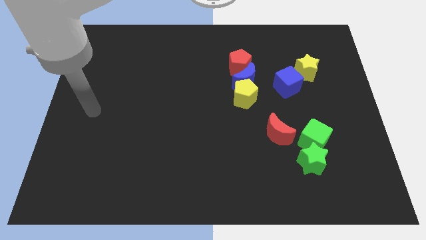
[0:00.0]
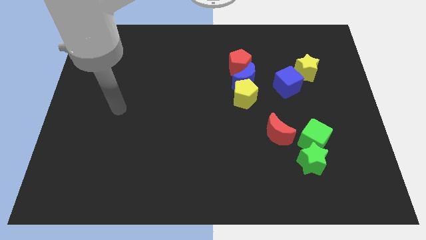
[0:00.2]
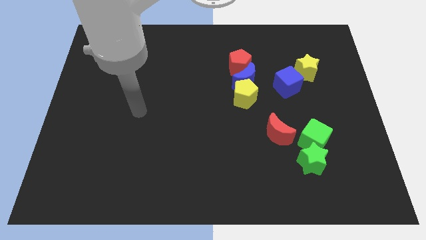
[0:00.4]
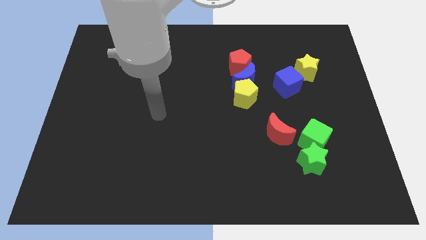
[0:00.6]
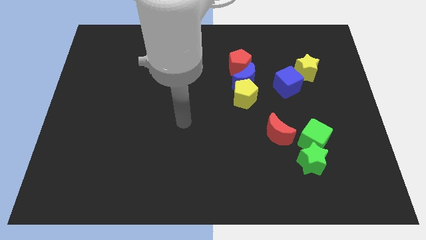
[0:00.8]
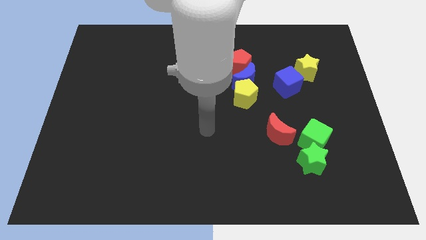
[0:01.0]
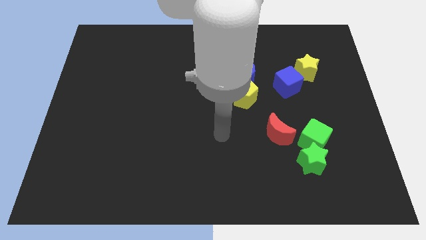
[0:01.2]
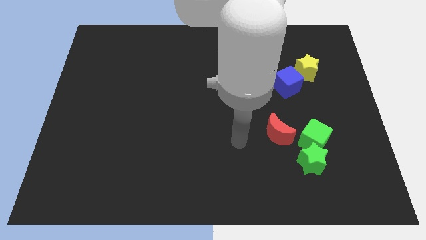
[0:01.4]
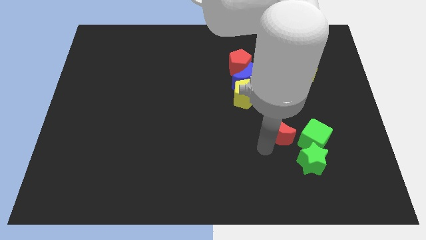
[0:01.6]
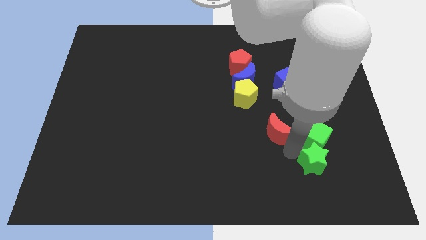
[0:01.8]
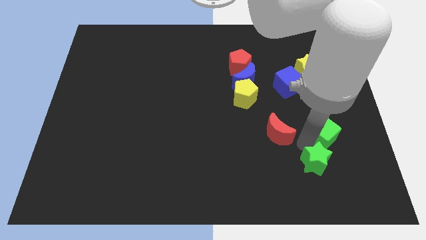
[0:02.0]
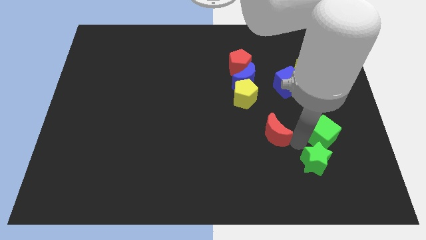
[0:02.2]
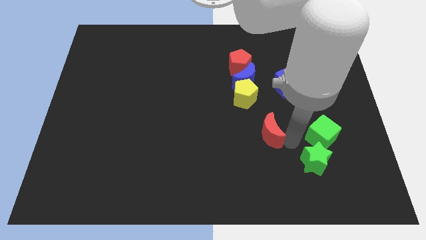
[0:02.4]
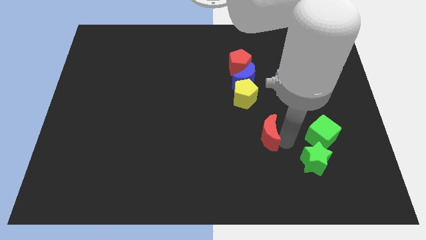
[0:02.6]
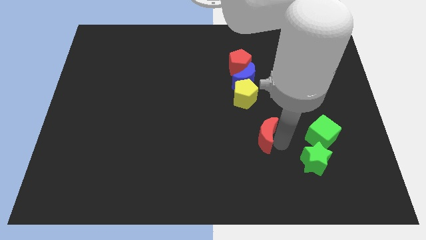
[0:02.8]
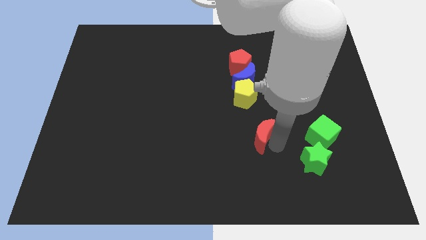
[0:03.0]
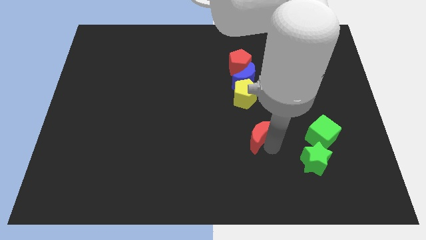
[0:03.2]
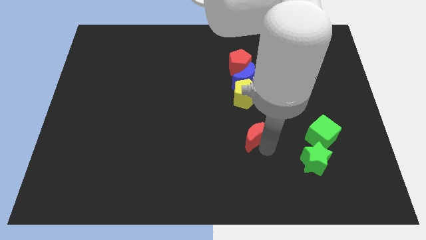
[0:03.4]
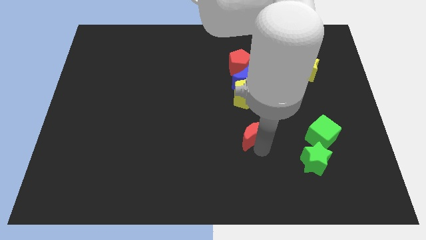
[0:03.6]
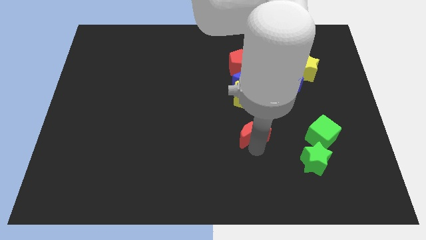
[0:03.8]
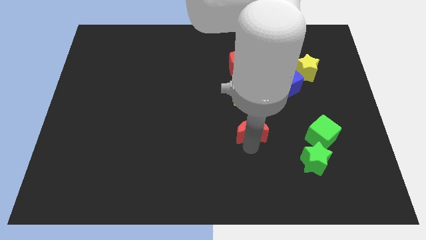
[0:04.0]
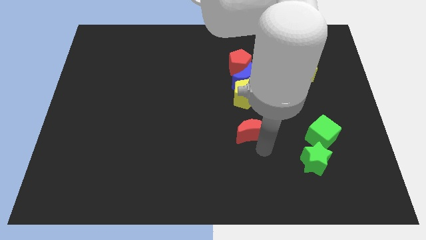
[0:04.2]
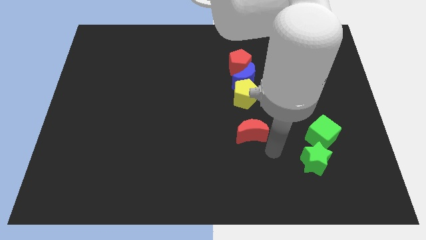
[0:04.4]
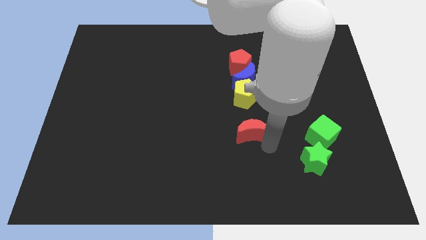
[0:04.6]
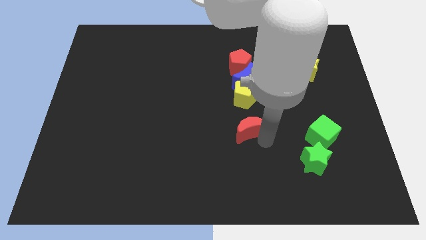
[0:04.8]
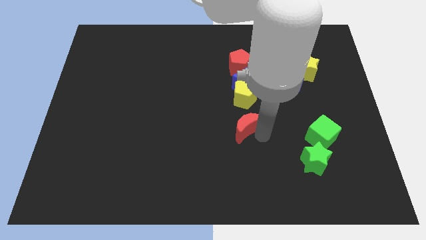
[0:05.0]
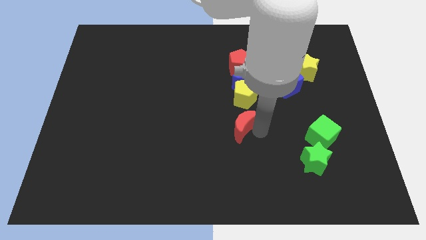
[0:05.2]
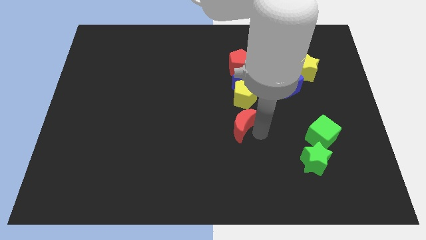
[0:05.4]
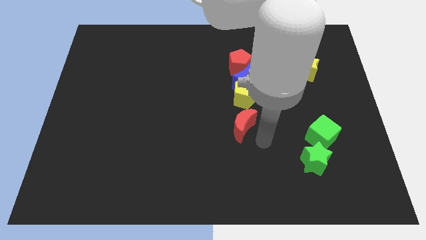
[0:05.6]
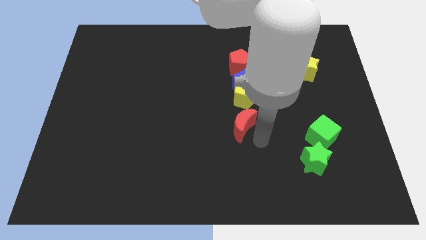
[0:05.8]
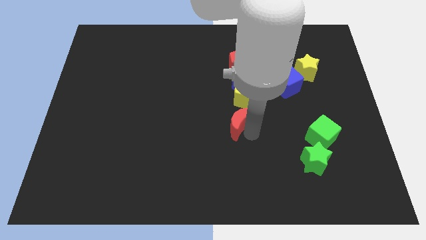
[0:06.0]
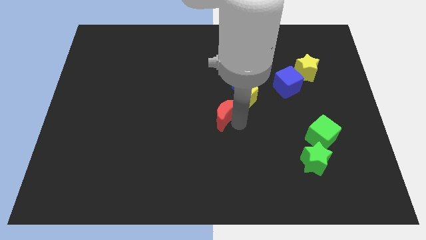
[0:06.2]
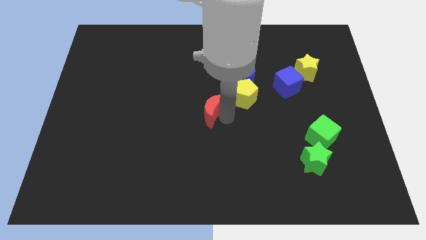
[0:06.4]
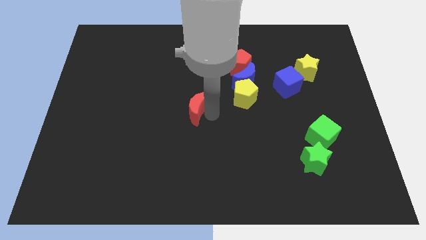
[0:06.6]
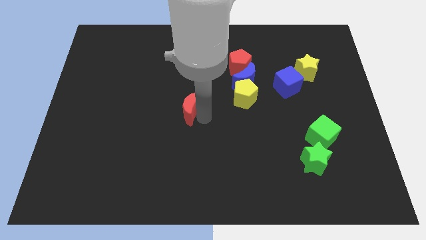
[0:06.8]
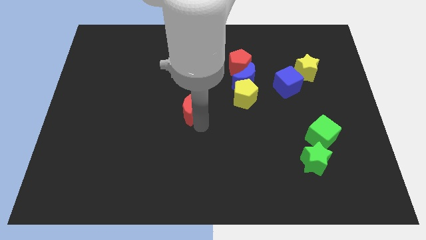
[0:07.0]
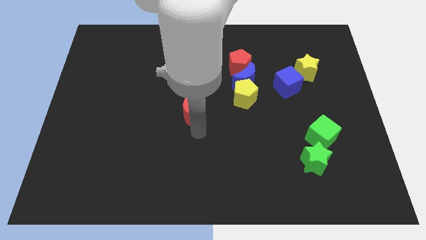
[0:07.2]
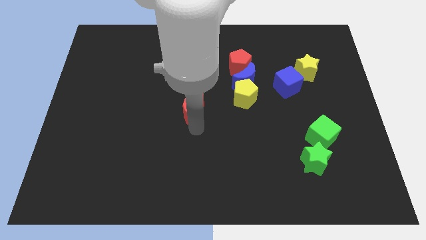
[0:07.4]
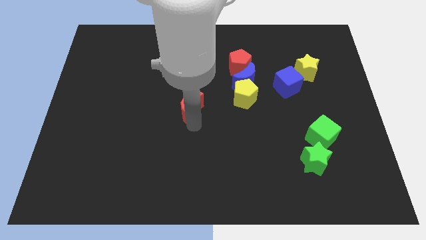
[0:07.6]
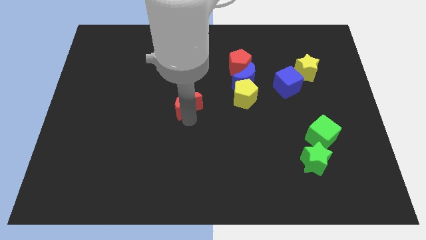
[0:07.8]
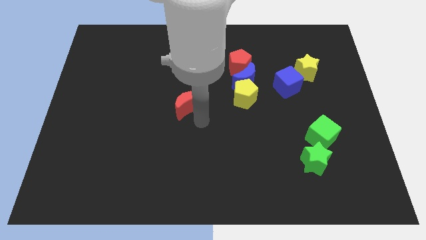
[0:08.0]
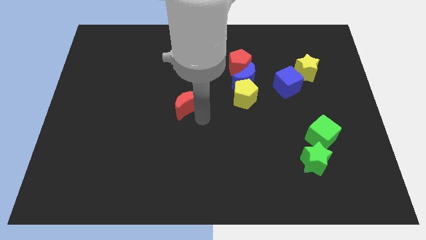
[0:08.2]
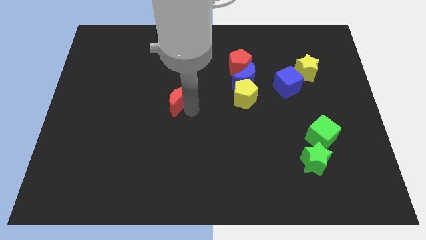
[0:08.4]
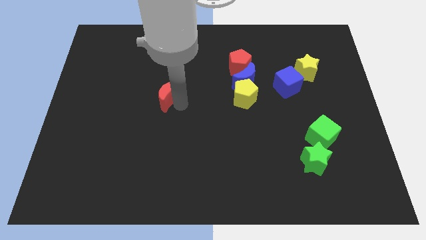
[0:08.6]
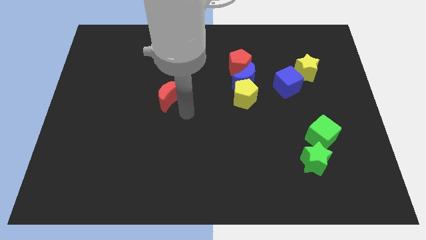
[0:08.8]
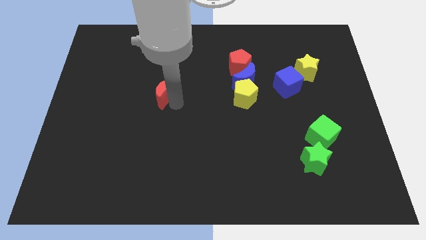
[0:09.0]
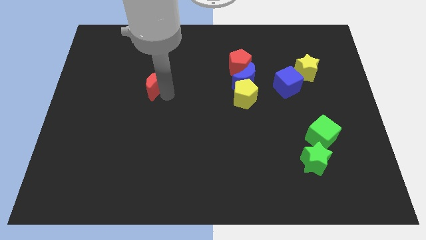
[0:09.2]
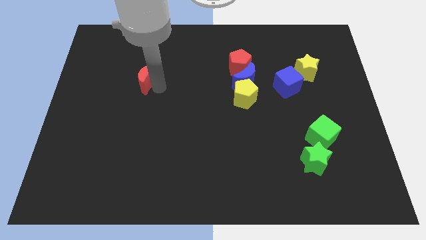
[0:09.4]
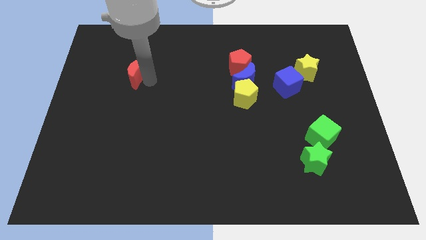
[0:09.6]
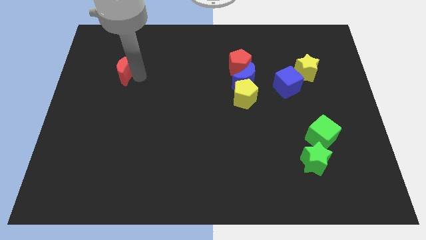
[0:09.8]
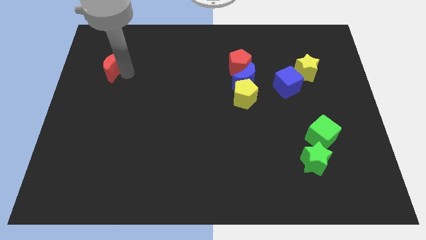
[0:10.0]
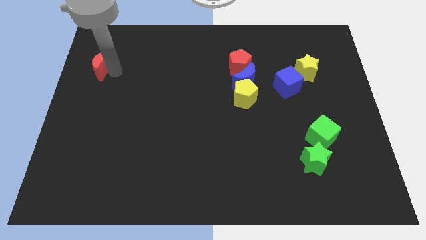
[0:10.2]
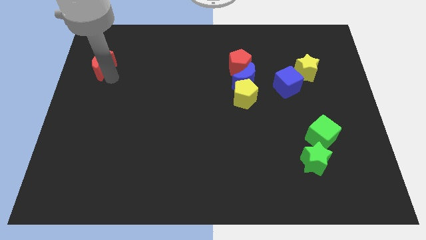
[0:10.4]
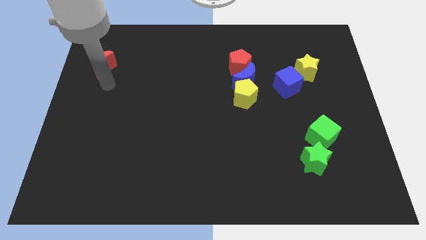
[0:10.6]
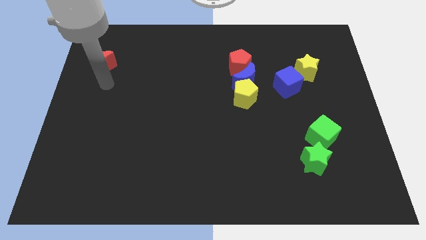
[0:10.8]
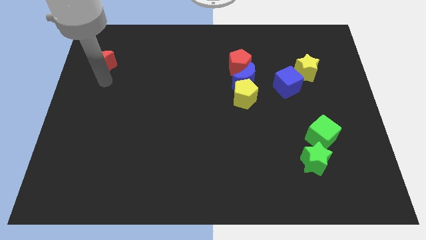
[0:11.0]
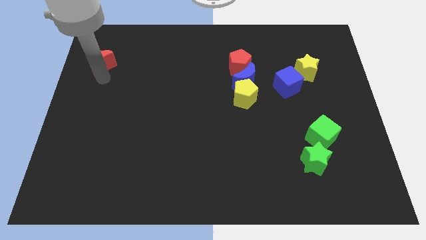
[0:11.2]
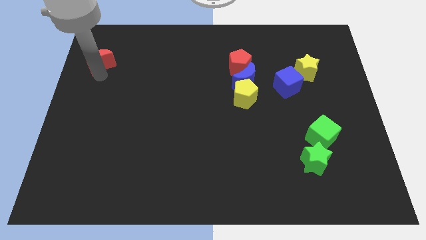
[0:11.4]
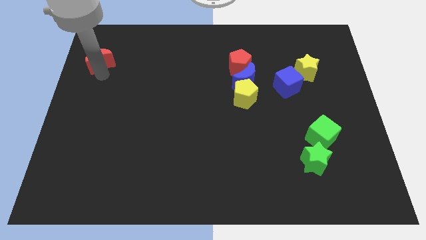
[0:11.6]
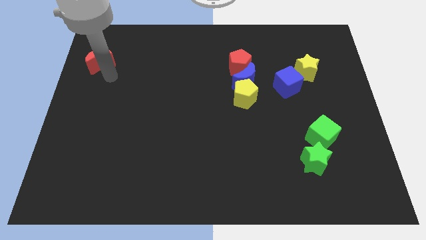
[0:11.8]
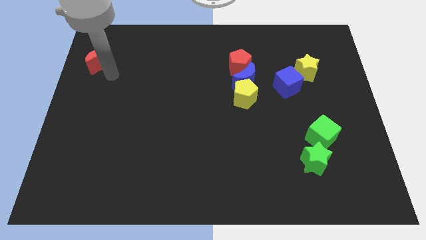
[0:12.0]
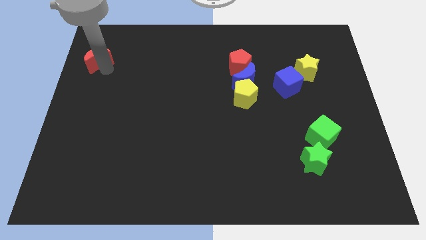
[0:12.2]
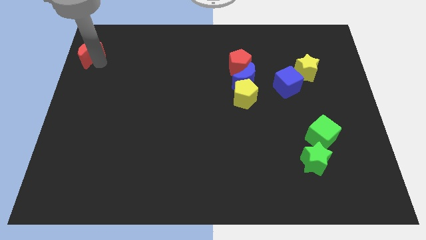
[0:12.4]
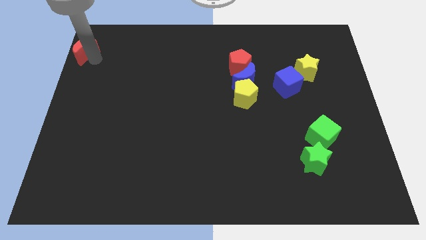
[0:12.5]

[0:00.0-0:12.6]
put the red moon to the top left corner
